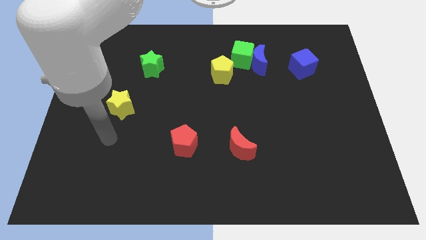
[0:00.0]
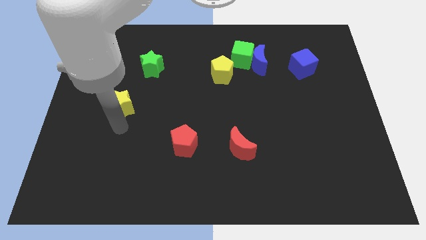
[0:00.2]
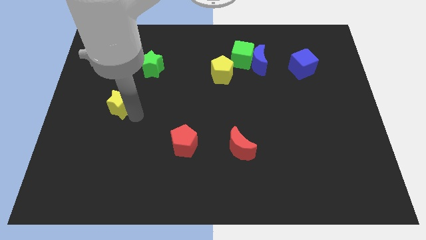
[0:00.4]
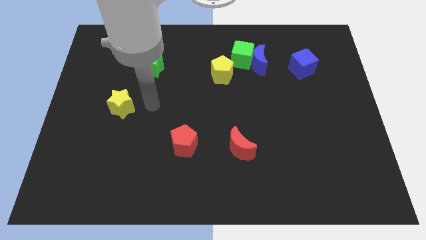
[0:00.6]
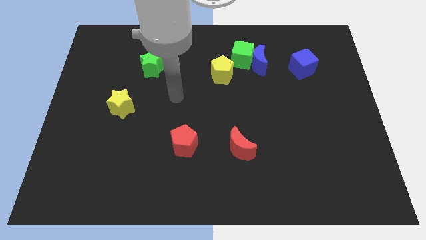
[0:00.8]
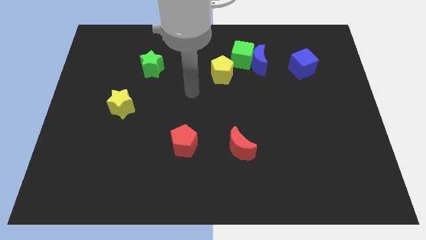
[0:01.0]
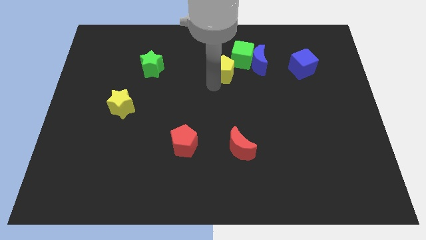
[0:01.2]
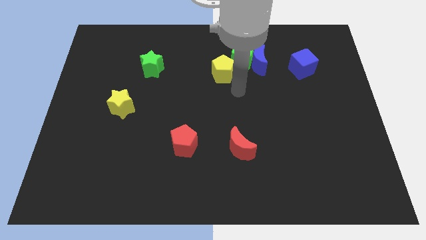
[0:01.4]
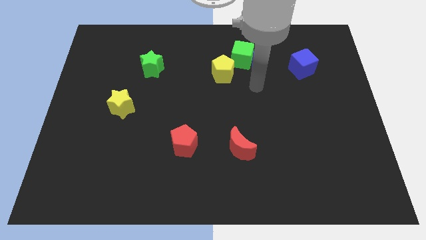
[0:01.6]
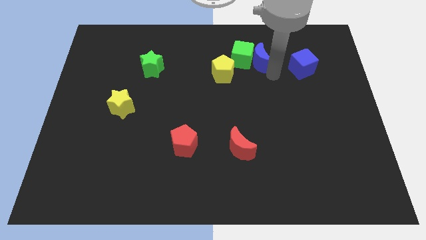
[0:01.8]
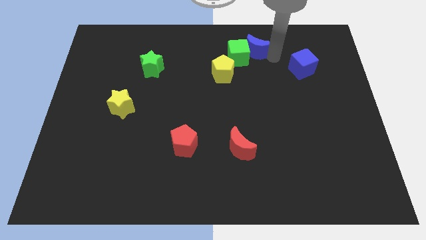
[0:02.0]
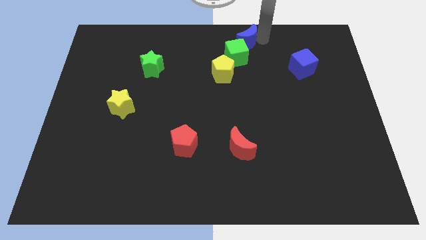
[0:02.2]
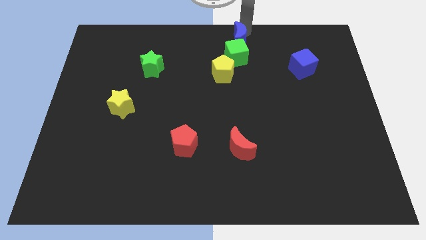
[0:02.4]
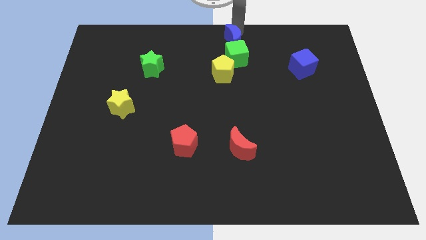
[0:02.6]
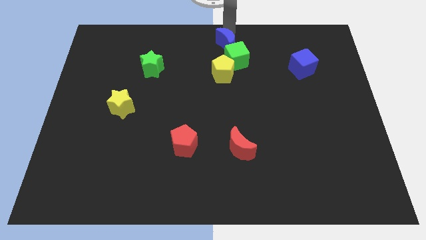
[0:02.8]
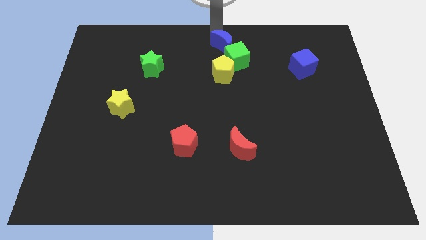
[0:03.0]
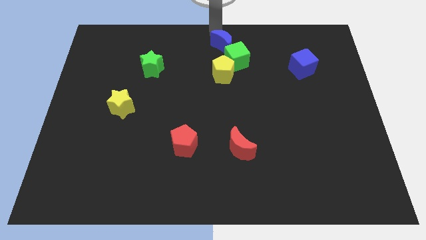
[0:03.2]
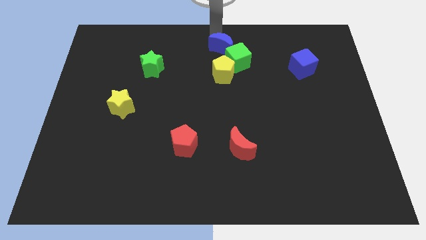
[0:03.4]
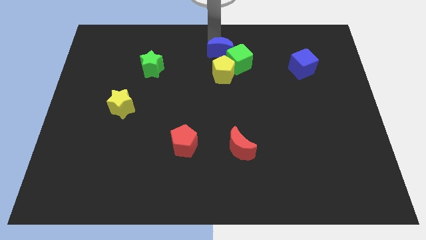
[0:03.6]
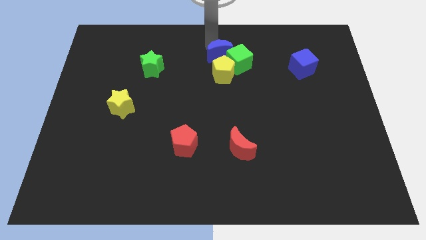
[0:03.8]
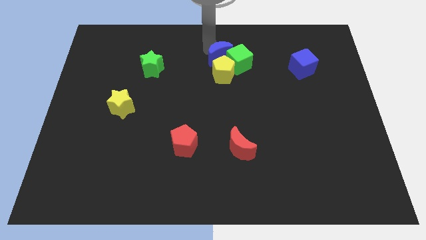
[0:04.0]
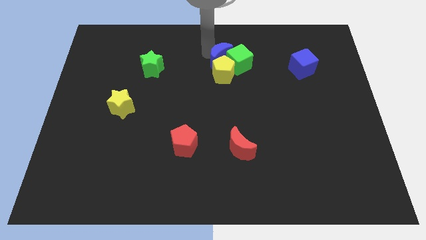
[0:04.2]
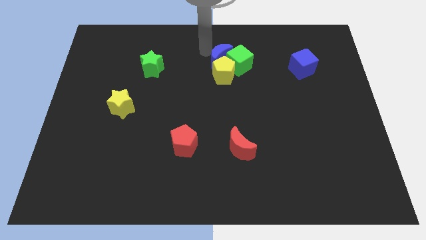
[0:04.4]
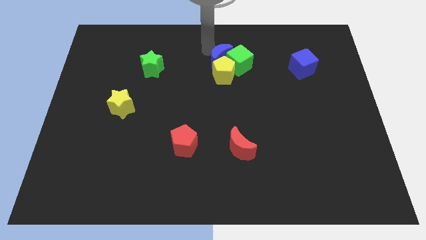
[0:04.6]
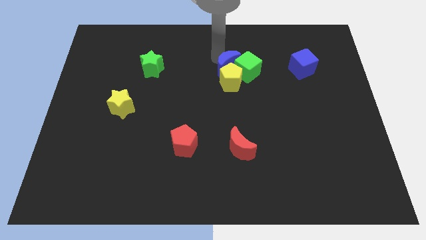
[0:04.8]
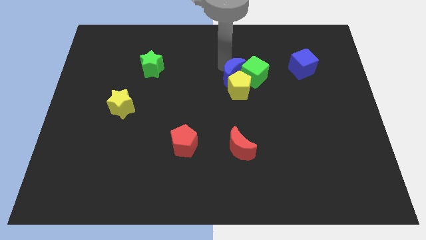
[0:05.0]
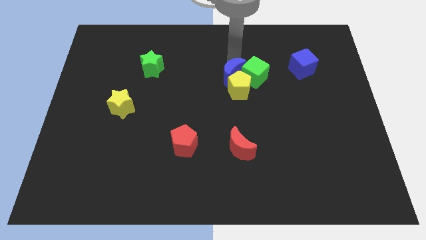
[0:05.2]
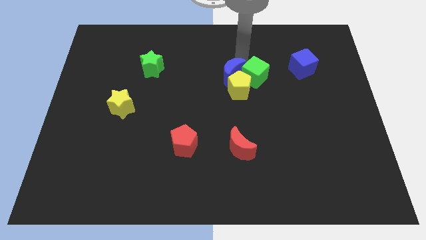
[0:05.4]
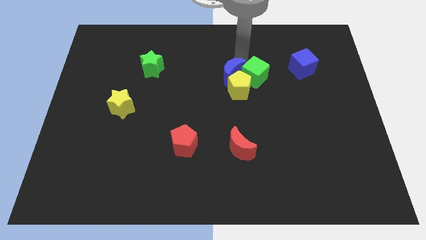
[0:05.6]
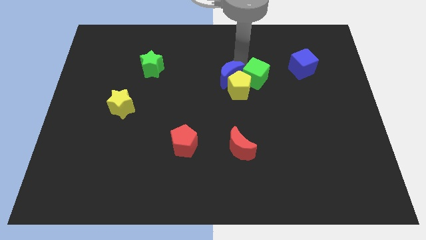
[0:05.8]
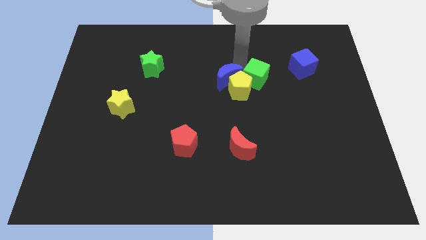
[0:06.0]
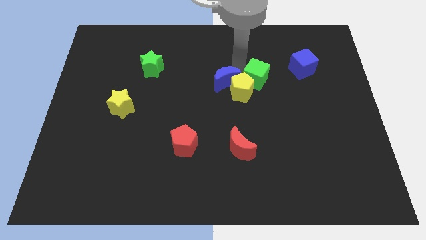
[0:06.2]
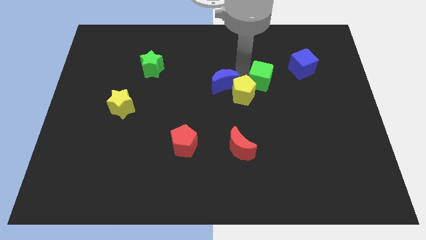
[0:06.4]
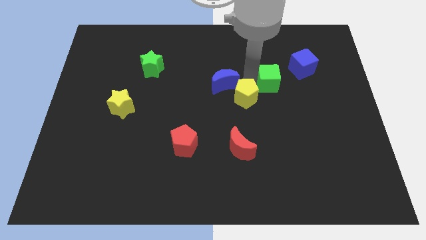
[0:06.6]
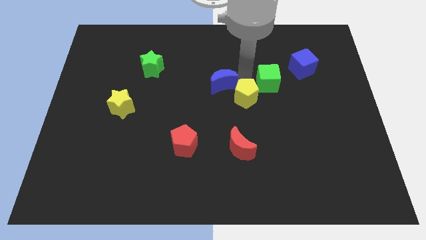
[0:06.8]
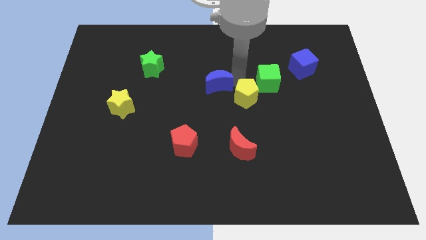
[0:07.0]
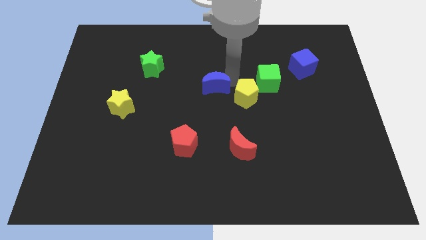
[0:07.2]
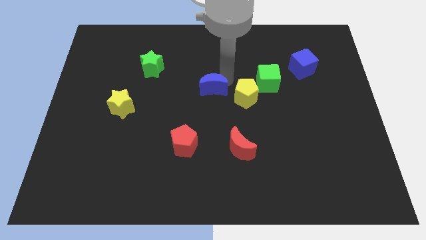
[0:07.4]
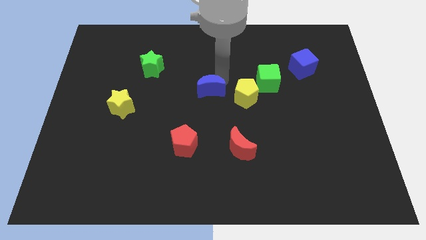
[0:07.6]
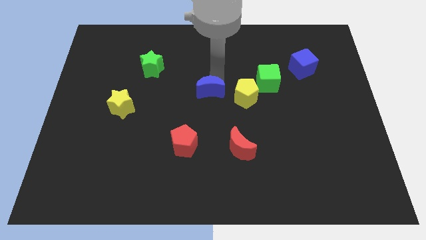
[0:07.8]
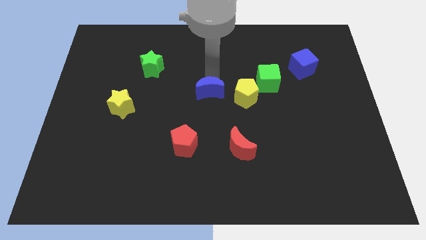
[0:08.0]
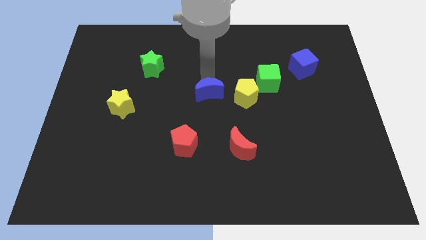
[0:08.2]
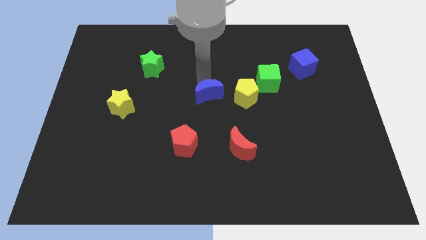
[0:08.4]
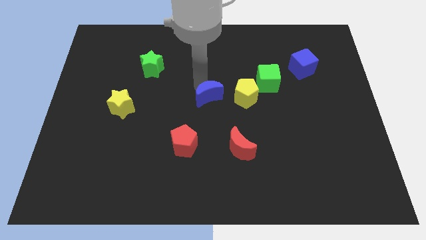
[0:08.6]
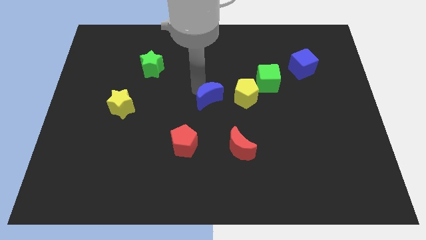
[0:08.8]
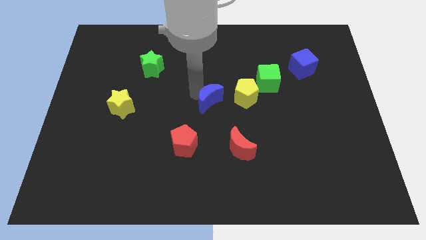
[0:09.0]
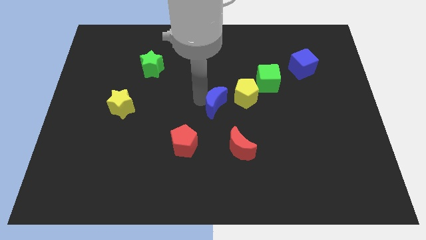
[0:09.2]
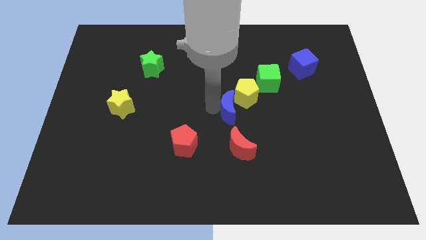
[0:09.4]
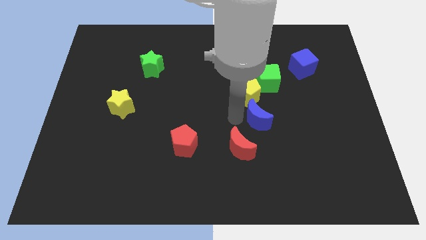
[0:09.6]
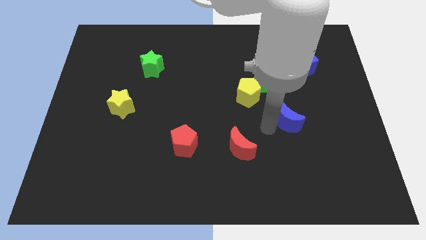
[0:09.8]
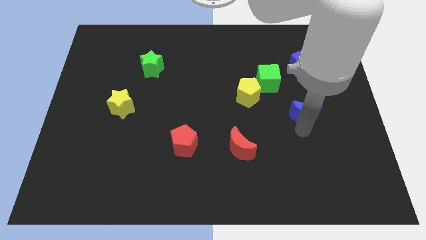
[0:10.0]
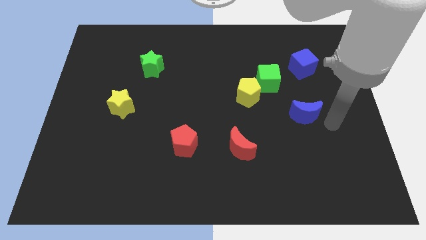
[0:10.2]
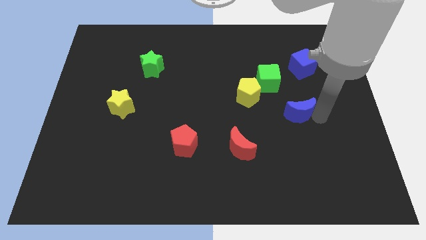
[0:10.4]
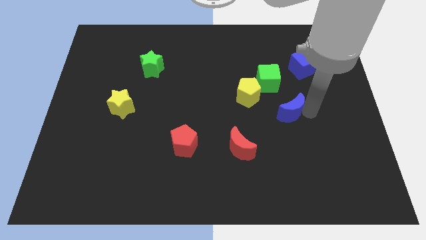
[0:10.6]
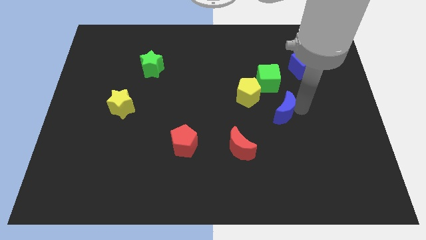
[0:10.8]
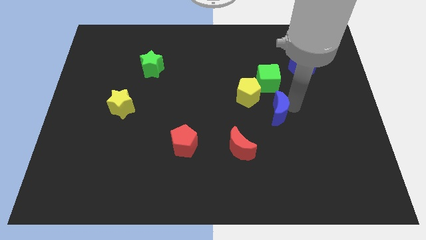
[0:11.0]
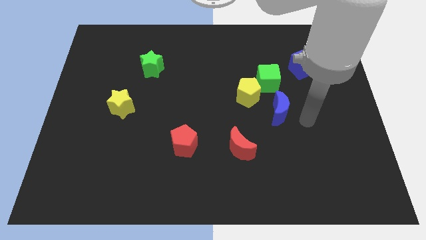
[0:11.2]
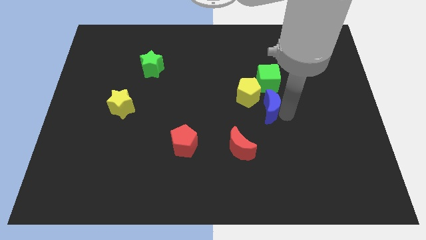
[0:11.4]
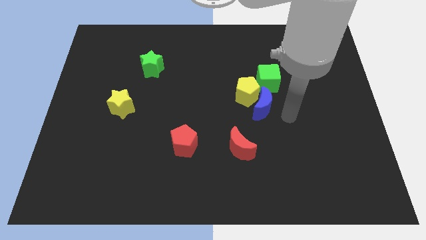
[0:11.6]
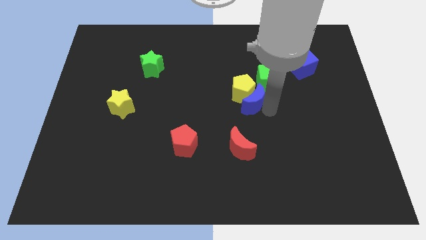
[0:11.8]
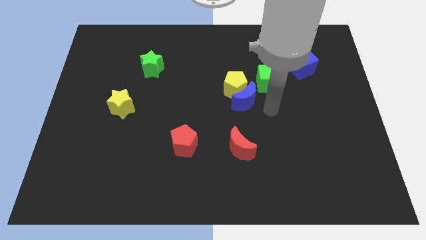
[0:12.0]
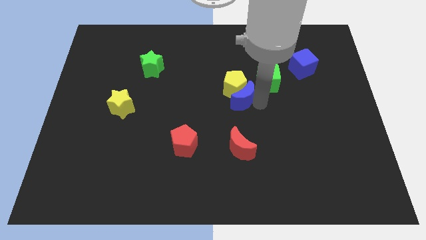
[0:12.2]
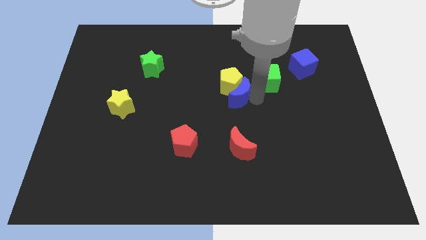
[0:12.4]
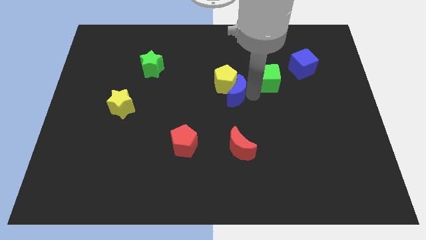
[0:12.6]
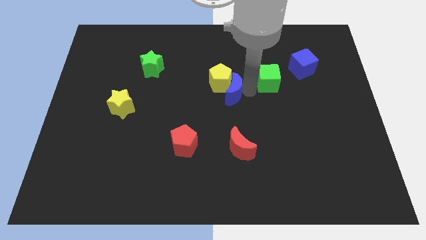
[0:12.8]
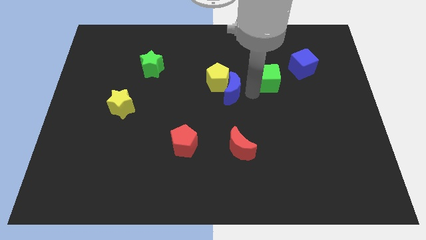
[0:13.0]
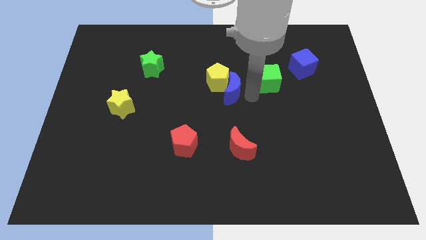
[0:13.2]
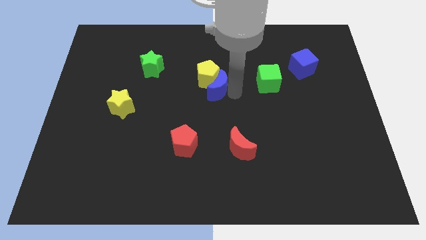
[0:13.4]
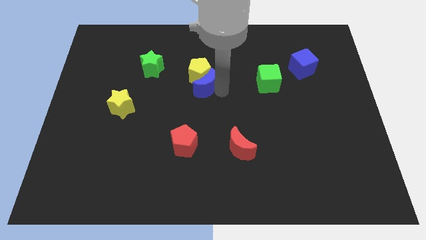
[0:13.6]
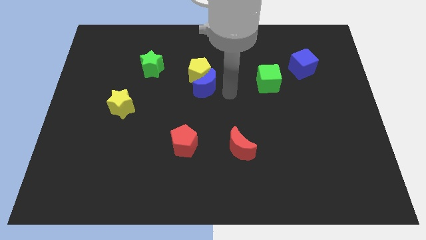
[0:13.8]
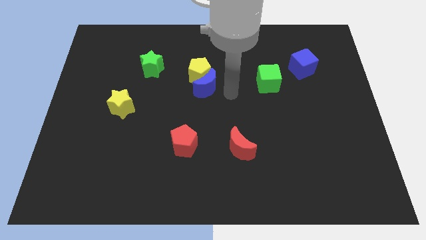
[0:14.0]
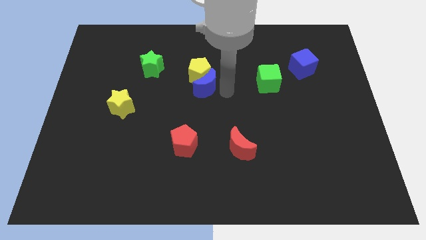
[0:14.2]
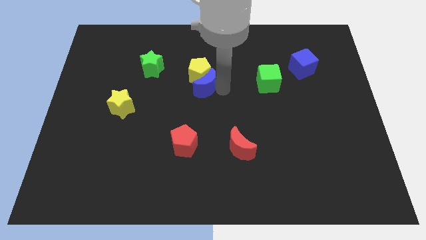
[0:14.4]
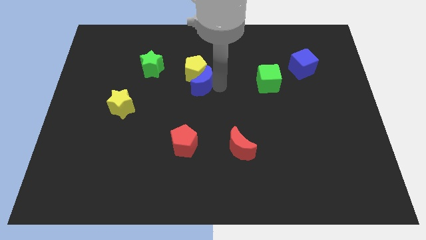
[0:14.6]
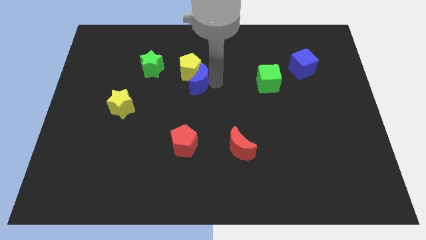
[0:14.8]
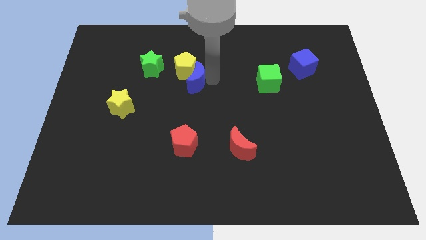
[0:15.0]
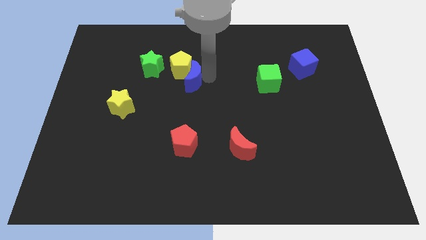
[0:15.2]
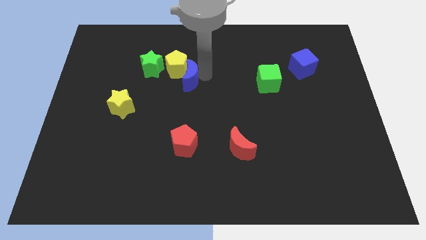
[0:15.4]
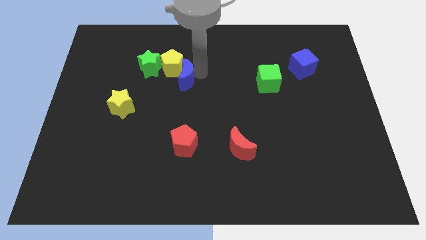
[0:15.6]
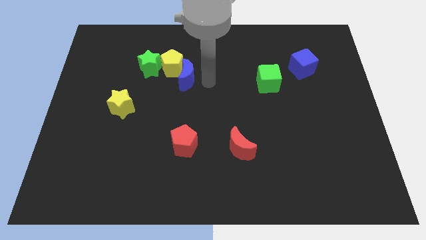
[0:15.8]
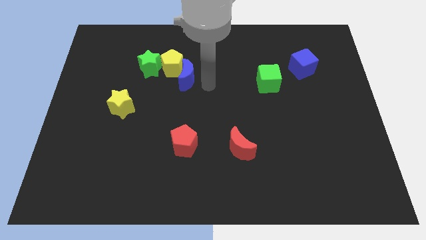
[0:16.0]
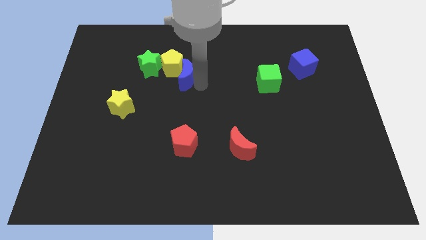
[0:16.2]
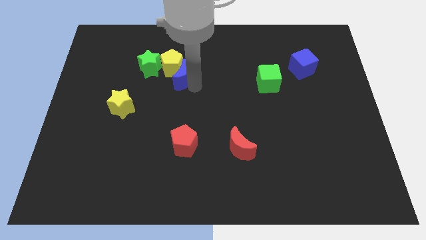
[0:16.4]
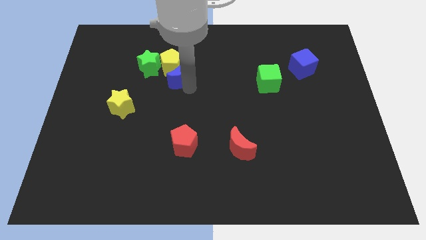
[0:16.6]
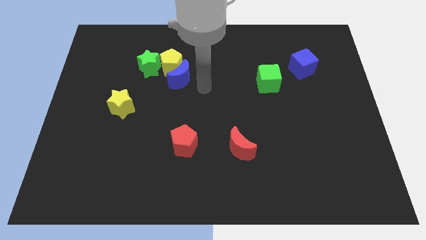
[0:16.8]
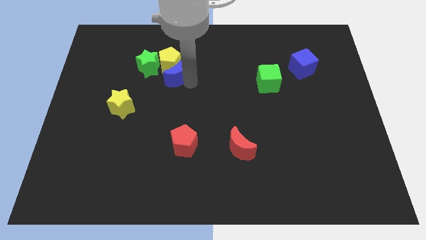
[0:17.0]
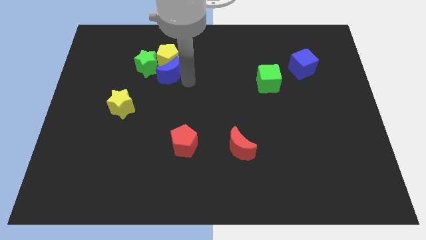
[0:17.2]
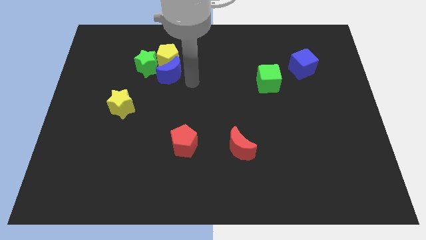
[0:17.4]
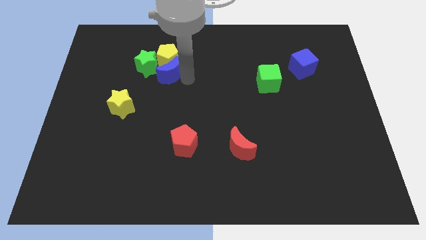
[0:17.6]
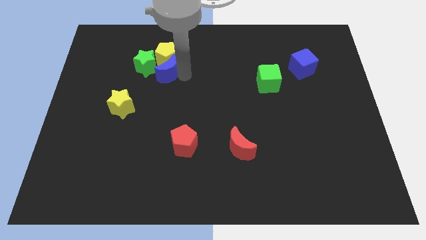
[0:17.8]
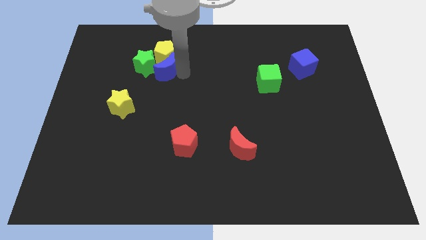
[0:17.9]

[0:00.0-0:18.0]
push the blue moon towards the green star
